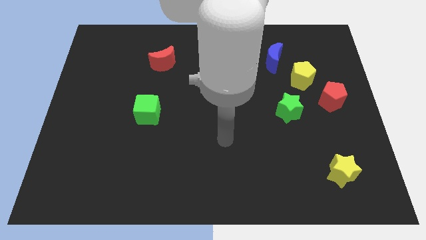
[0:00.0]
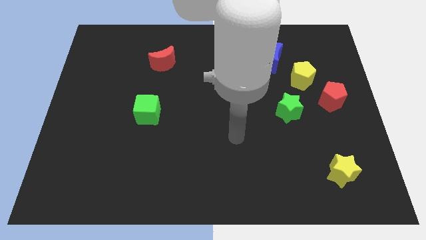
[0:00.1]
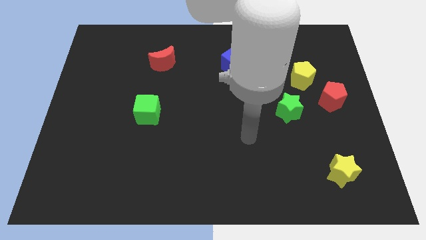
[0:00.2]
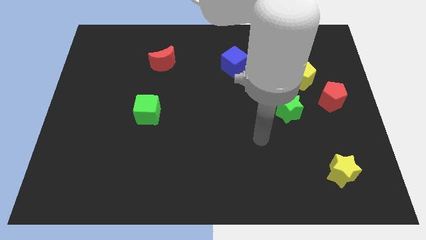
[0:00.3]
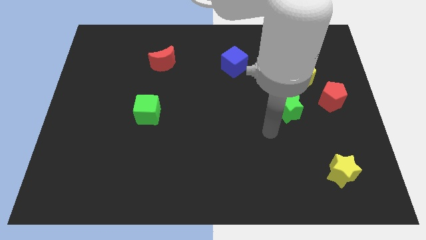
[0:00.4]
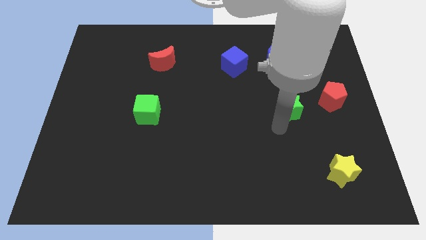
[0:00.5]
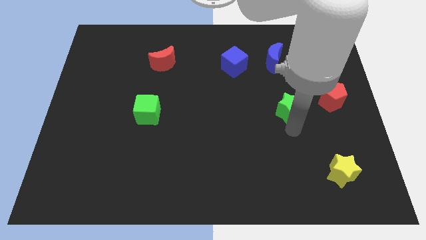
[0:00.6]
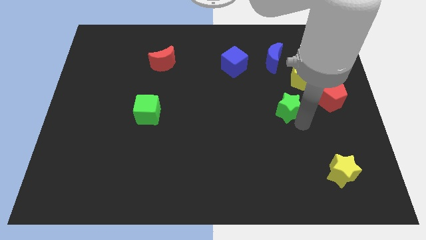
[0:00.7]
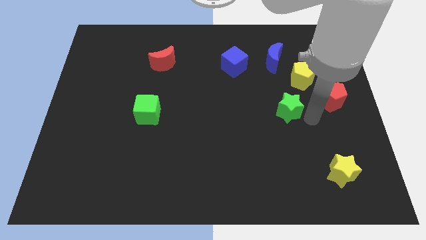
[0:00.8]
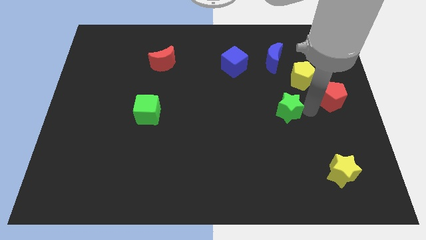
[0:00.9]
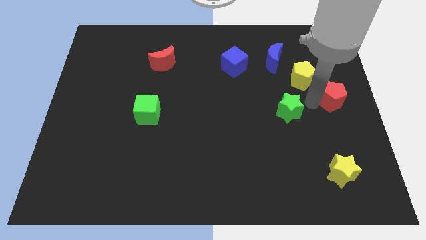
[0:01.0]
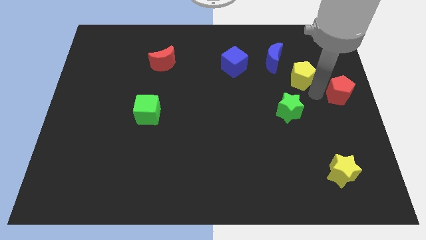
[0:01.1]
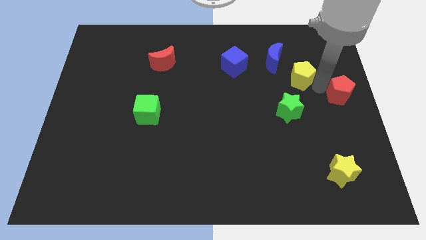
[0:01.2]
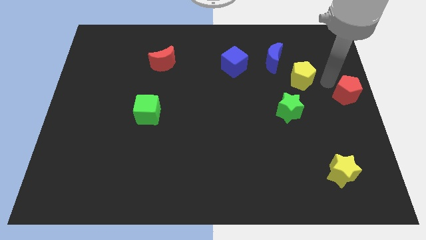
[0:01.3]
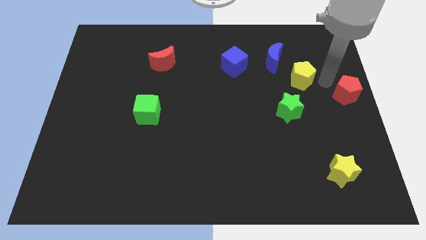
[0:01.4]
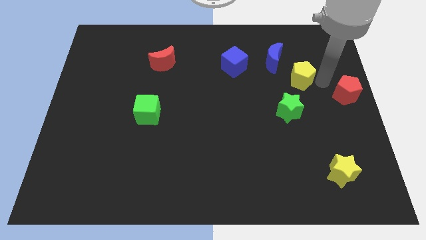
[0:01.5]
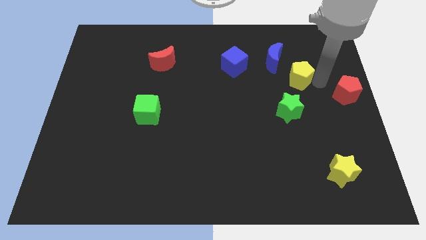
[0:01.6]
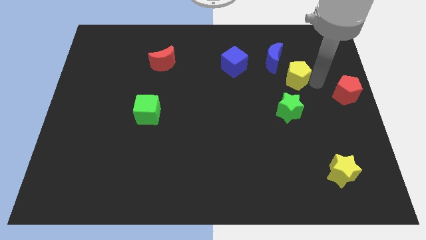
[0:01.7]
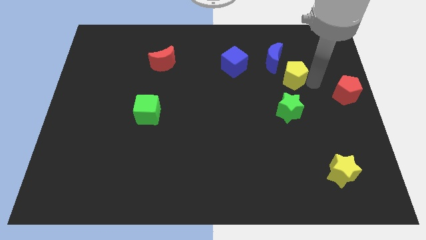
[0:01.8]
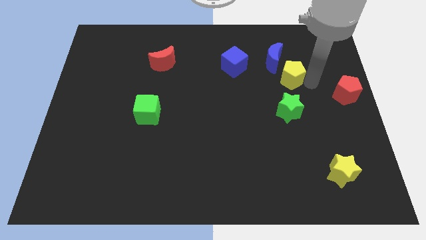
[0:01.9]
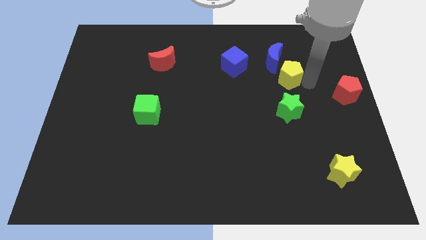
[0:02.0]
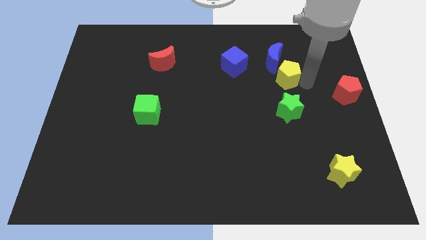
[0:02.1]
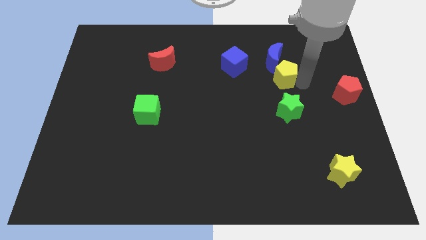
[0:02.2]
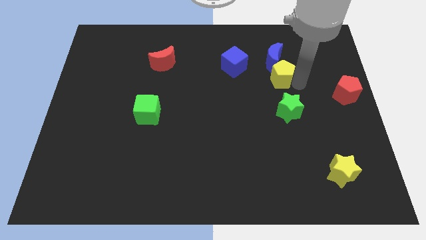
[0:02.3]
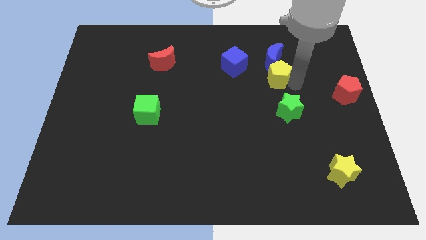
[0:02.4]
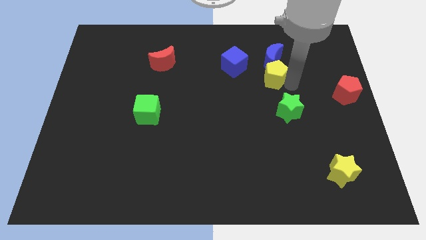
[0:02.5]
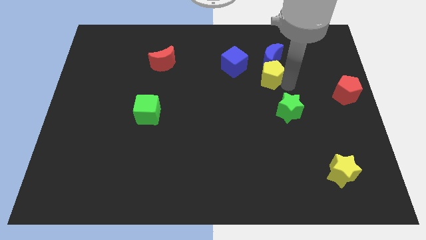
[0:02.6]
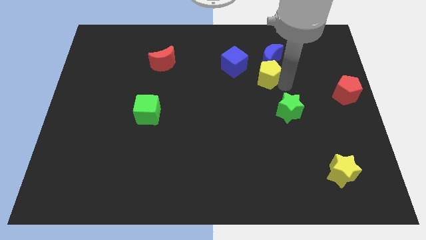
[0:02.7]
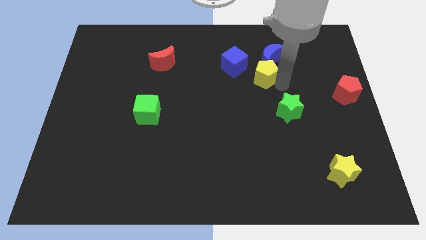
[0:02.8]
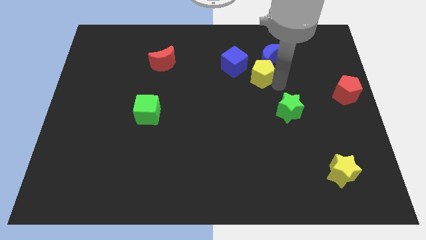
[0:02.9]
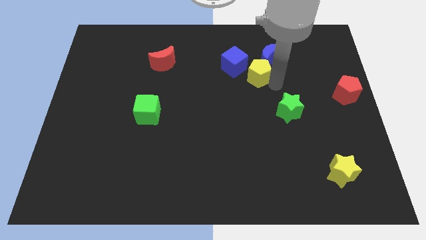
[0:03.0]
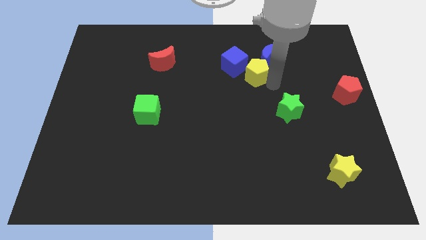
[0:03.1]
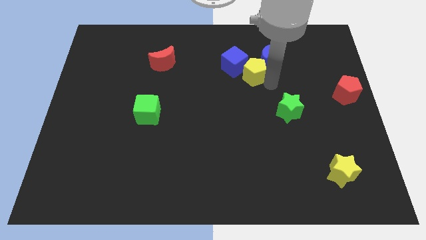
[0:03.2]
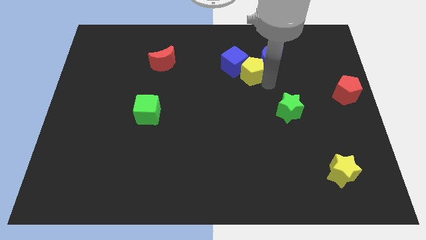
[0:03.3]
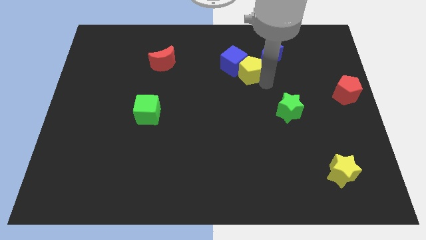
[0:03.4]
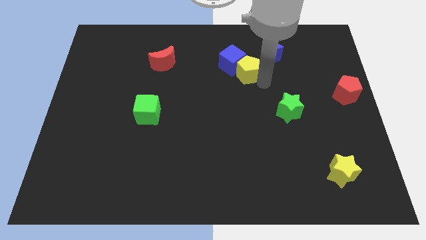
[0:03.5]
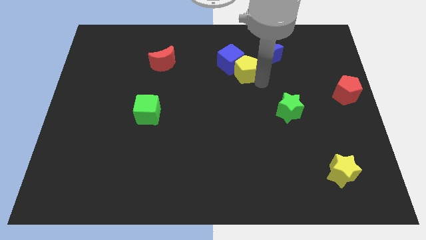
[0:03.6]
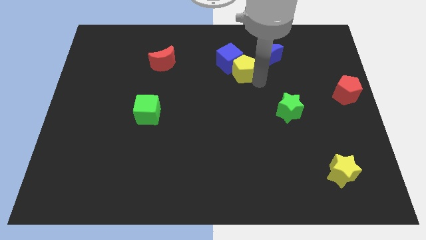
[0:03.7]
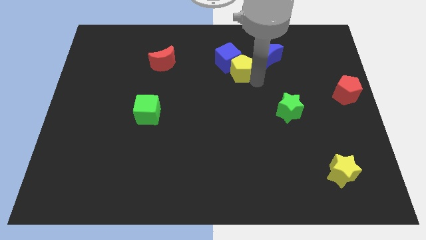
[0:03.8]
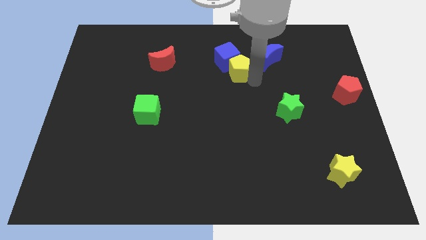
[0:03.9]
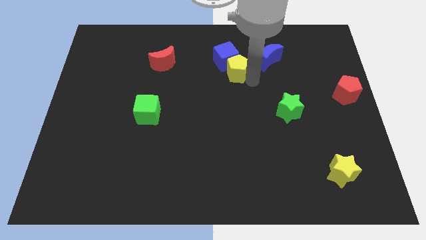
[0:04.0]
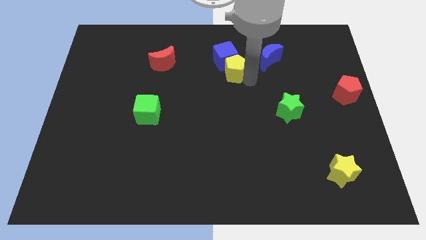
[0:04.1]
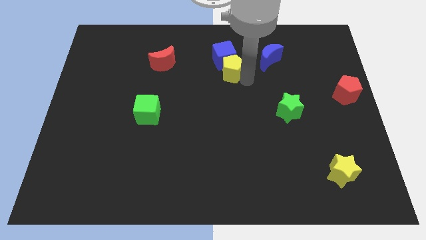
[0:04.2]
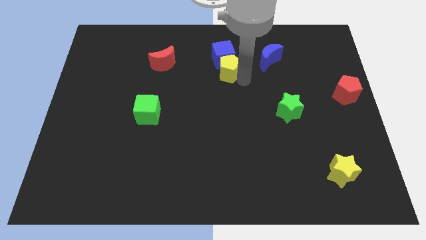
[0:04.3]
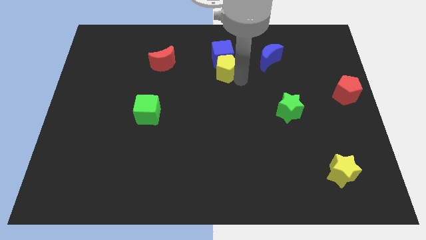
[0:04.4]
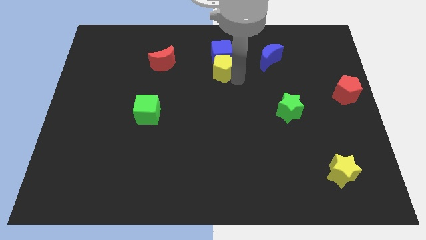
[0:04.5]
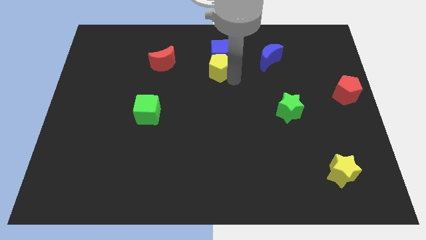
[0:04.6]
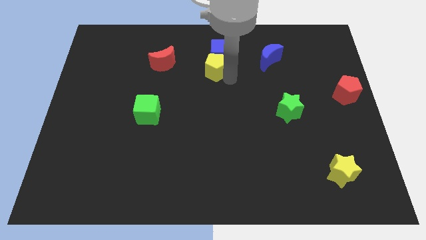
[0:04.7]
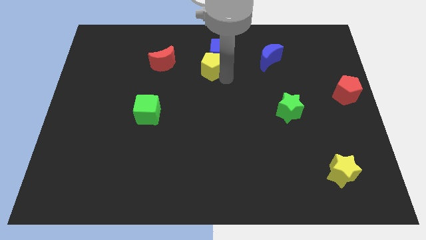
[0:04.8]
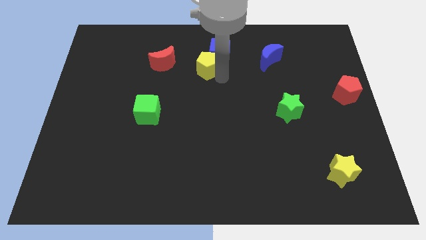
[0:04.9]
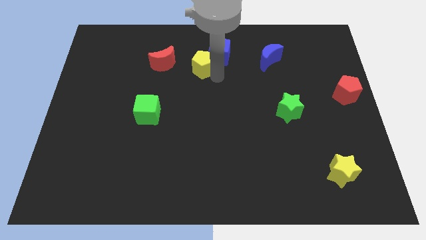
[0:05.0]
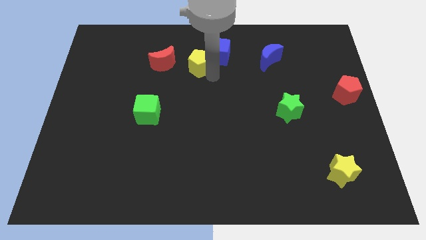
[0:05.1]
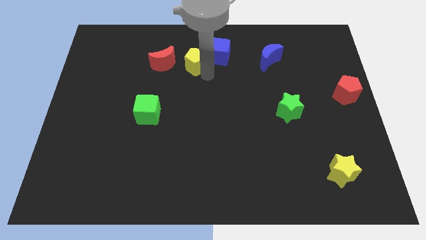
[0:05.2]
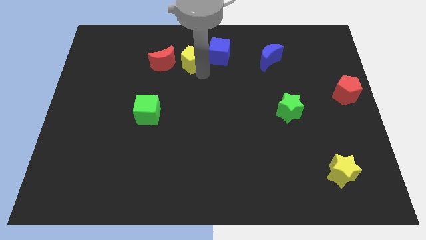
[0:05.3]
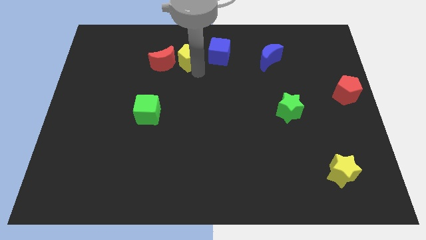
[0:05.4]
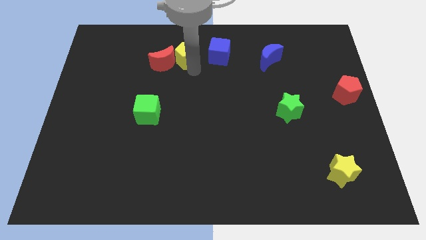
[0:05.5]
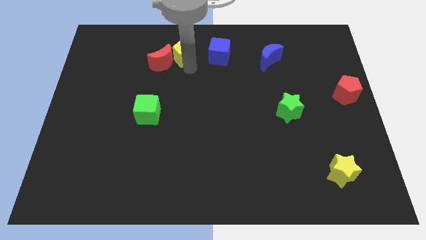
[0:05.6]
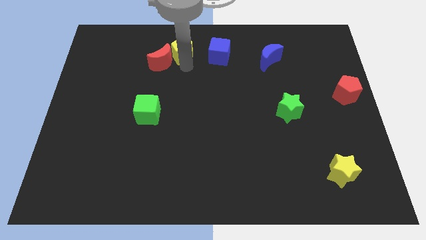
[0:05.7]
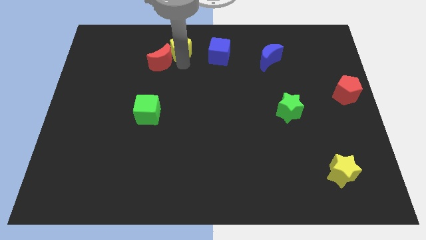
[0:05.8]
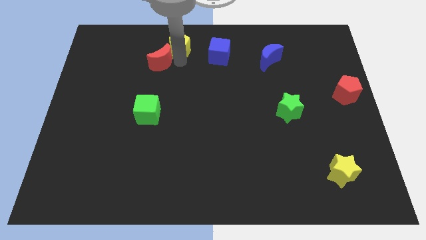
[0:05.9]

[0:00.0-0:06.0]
put the yellow pentagon to the top
